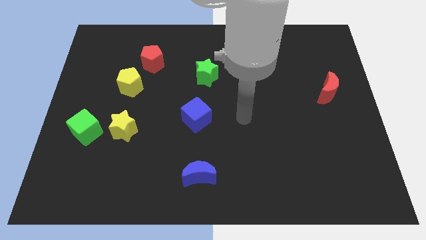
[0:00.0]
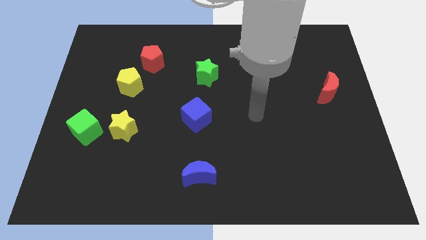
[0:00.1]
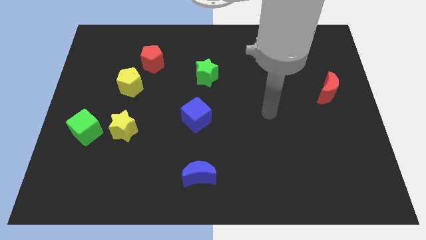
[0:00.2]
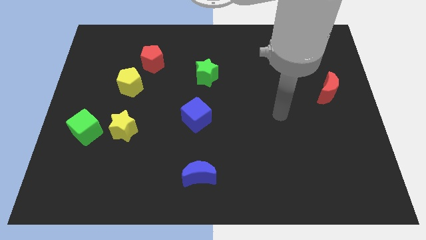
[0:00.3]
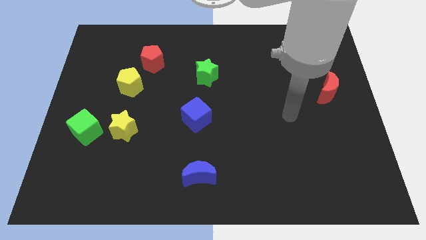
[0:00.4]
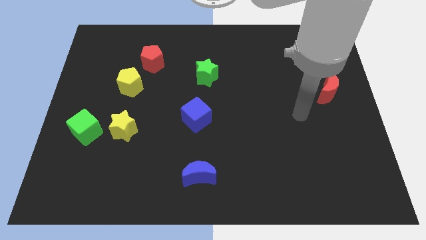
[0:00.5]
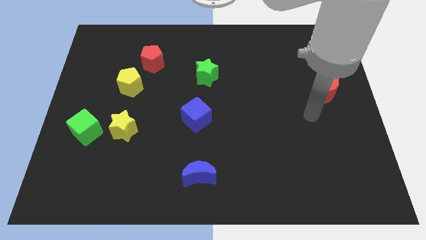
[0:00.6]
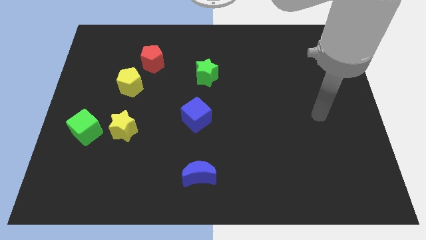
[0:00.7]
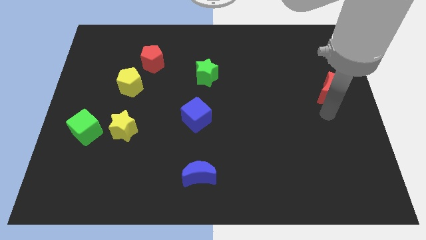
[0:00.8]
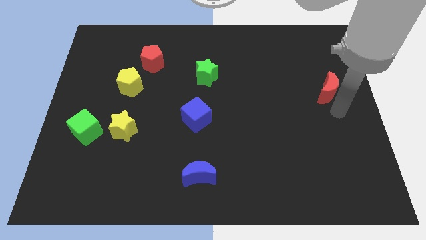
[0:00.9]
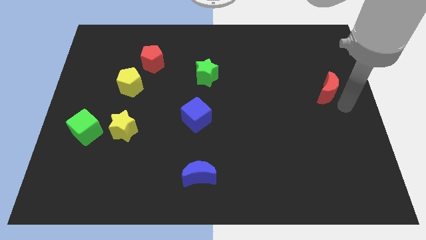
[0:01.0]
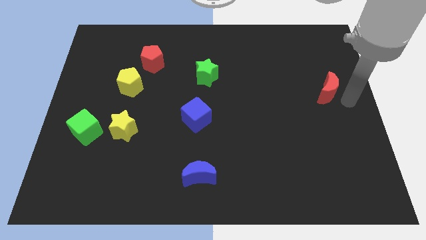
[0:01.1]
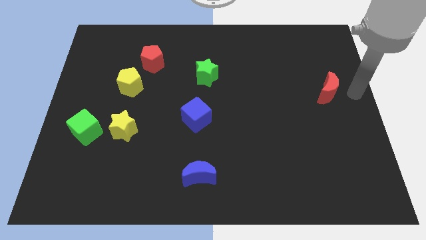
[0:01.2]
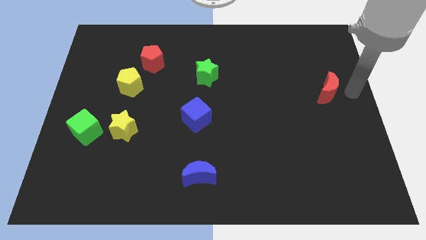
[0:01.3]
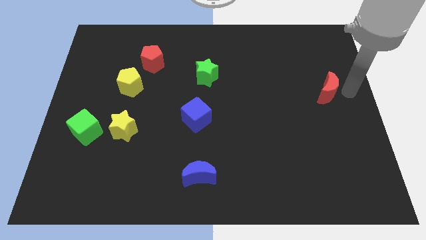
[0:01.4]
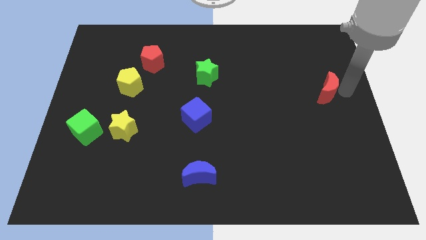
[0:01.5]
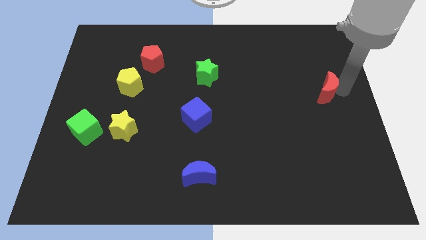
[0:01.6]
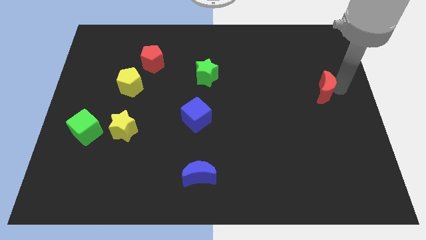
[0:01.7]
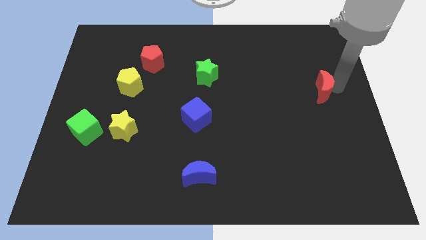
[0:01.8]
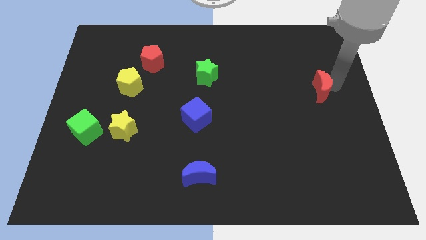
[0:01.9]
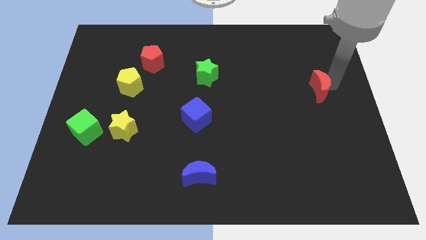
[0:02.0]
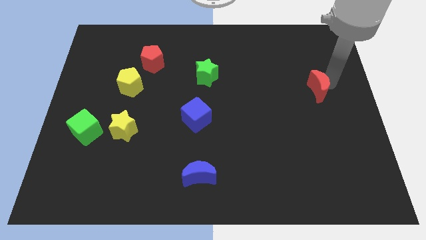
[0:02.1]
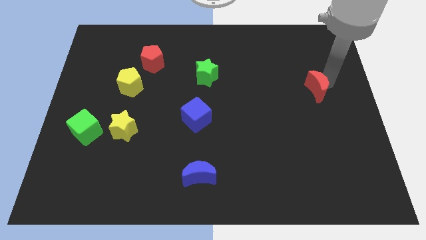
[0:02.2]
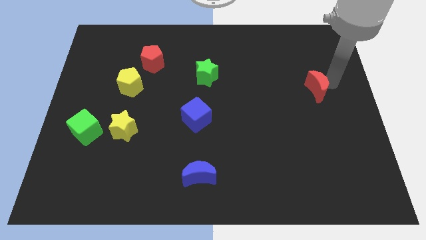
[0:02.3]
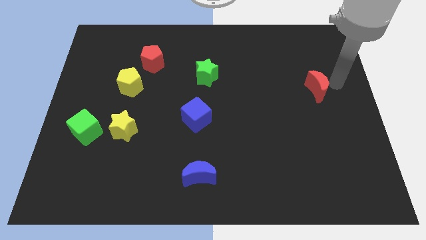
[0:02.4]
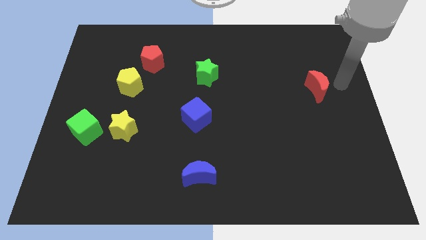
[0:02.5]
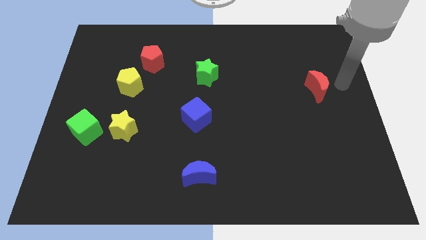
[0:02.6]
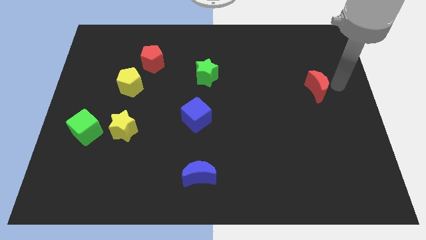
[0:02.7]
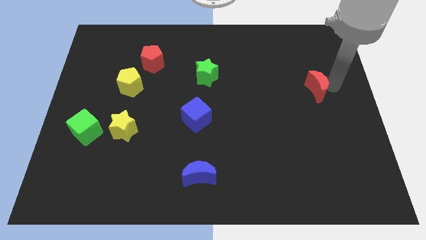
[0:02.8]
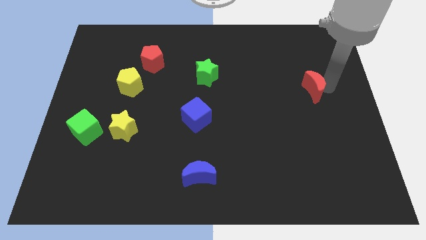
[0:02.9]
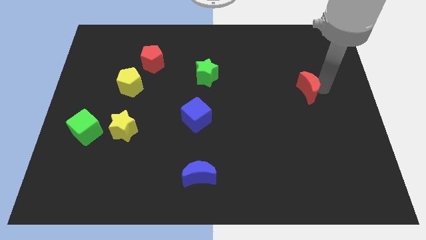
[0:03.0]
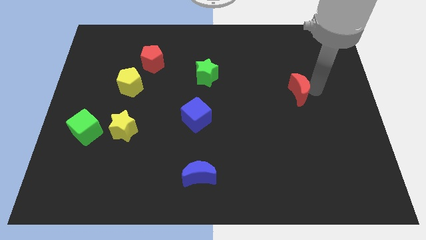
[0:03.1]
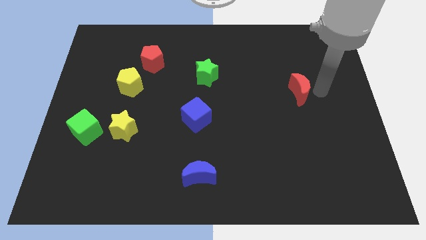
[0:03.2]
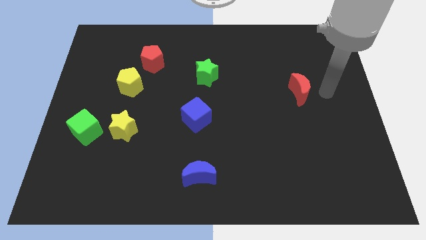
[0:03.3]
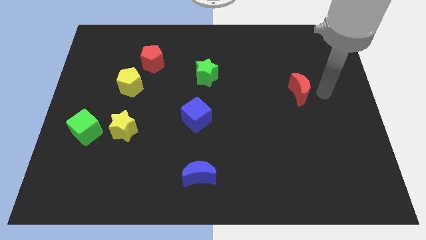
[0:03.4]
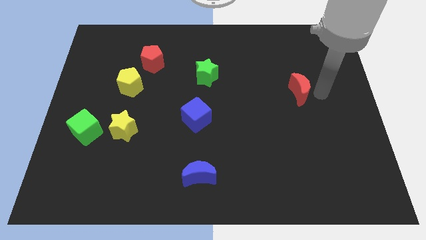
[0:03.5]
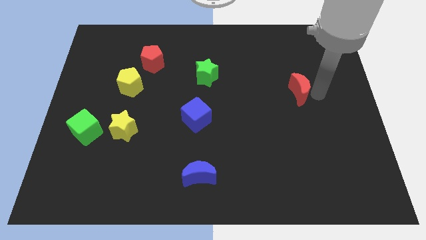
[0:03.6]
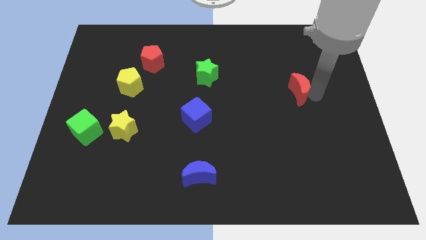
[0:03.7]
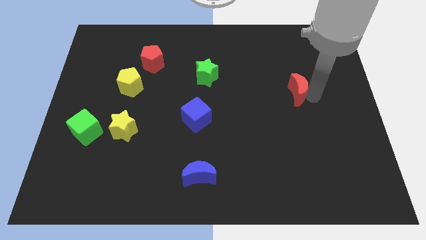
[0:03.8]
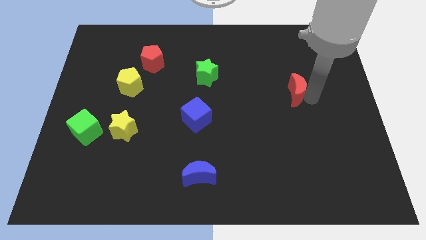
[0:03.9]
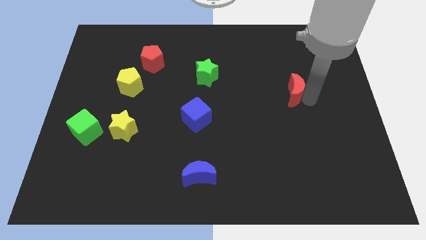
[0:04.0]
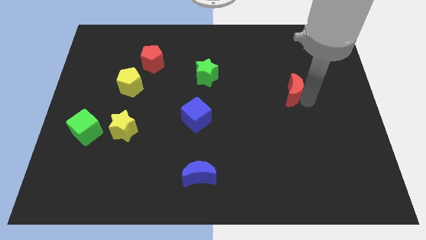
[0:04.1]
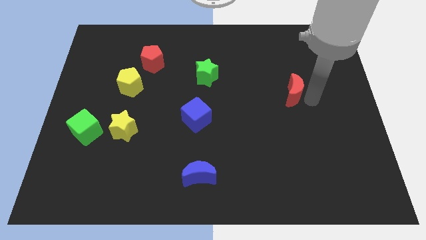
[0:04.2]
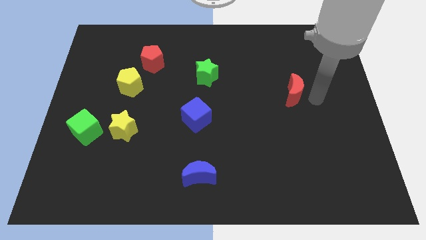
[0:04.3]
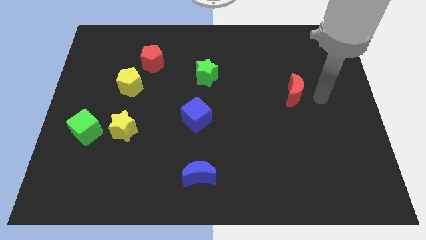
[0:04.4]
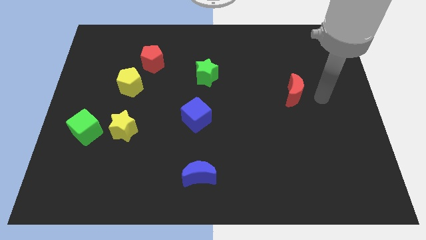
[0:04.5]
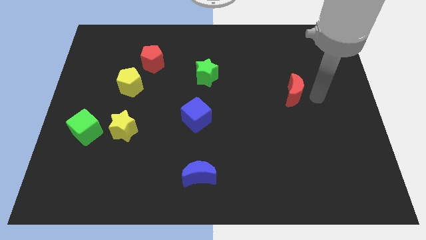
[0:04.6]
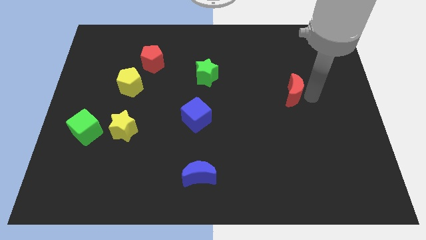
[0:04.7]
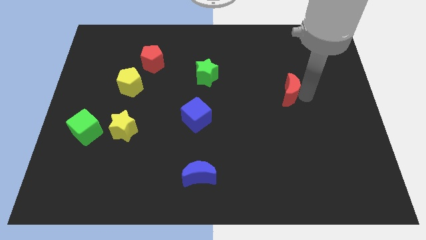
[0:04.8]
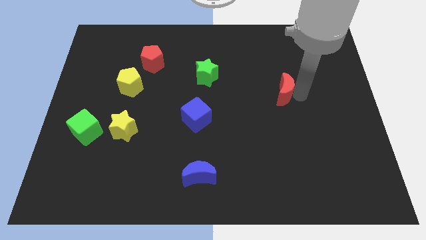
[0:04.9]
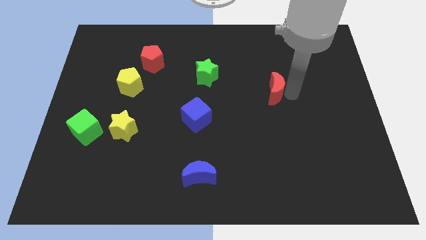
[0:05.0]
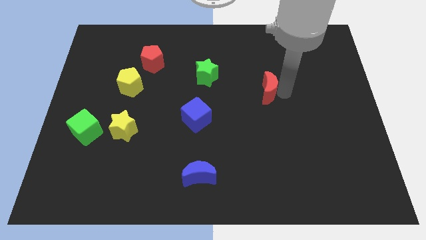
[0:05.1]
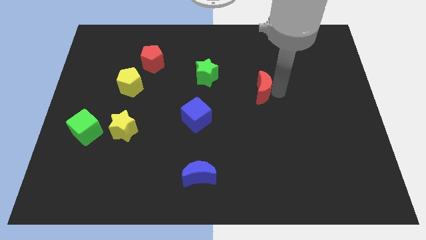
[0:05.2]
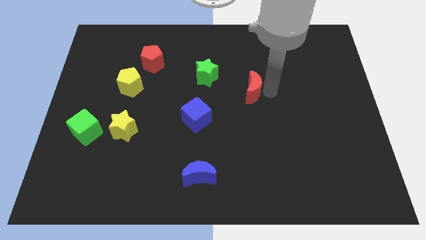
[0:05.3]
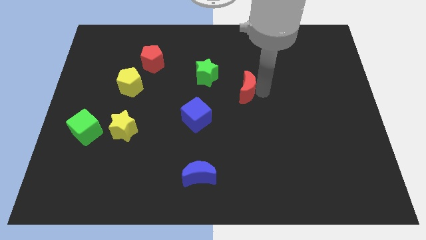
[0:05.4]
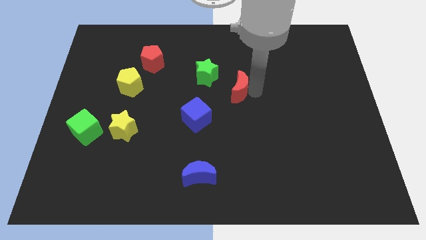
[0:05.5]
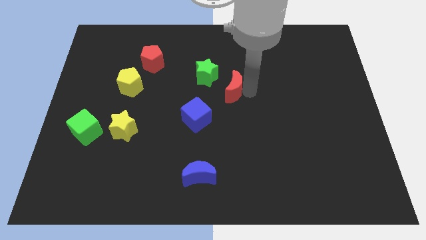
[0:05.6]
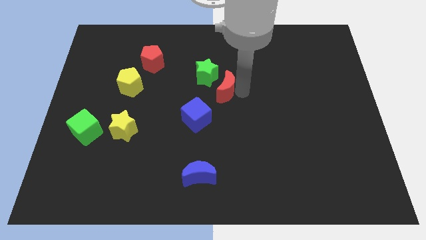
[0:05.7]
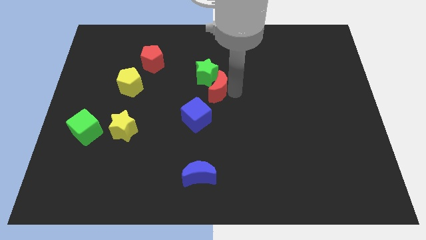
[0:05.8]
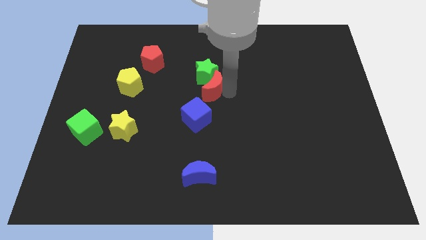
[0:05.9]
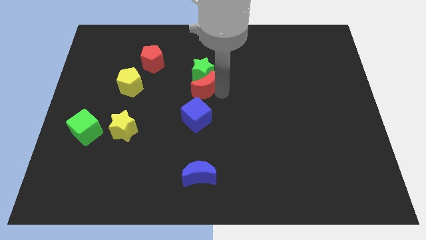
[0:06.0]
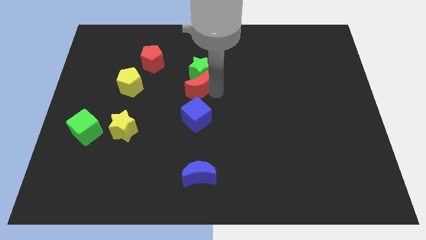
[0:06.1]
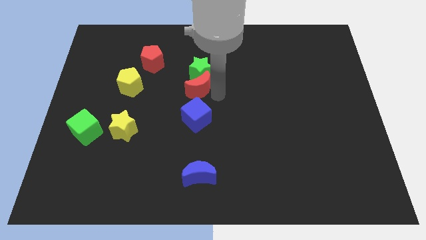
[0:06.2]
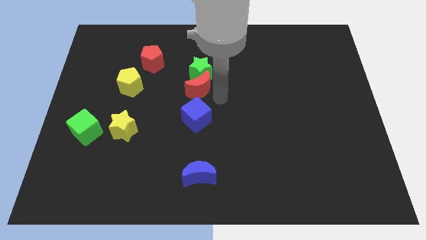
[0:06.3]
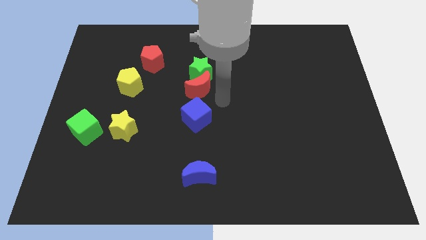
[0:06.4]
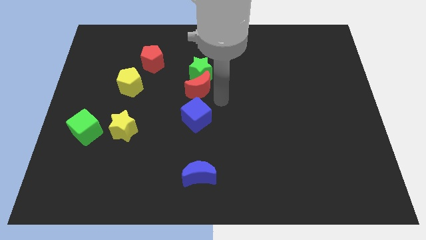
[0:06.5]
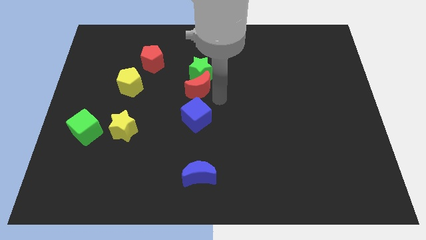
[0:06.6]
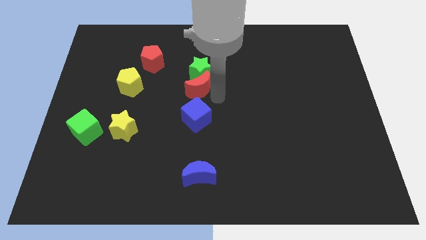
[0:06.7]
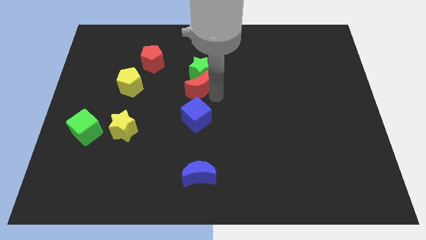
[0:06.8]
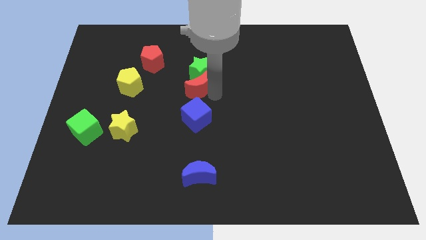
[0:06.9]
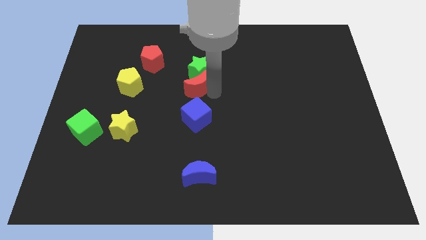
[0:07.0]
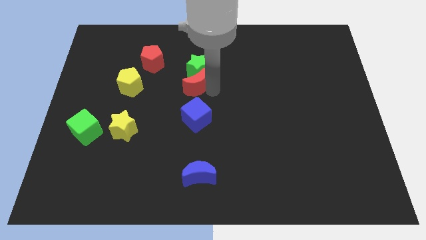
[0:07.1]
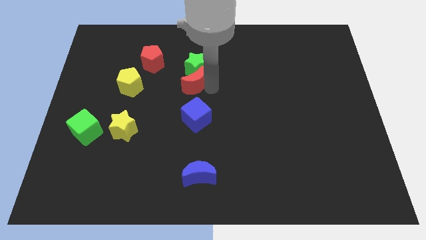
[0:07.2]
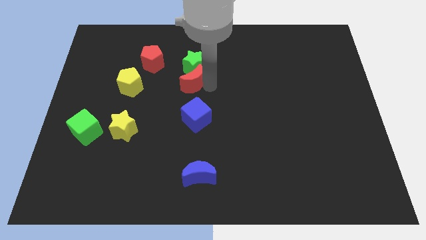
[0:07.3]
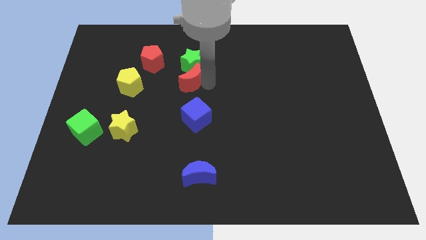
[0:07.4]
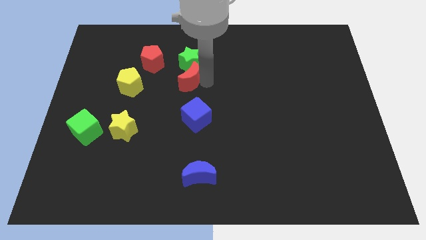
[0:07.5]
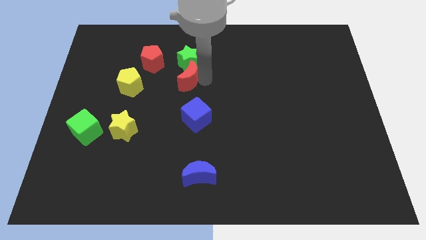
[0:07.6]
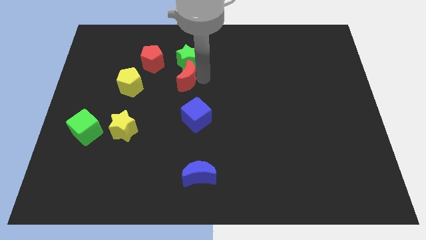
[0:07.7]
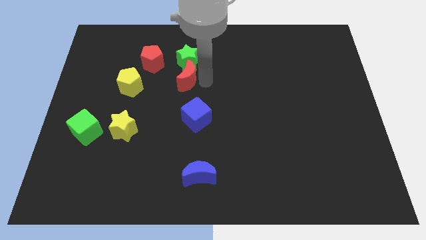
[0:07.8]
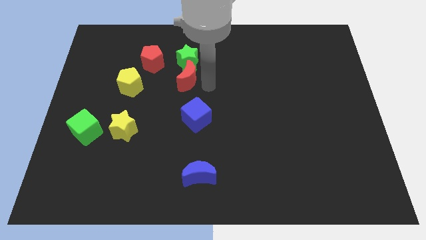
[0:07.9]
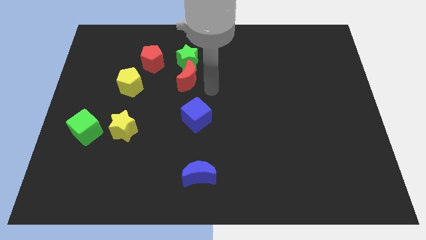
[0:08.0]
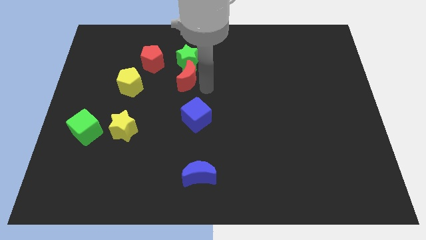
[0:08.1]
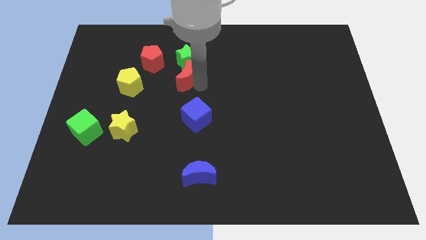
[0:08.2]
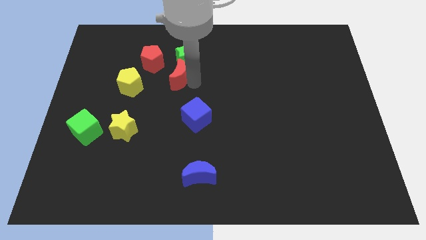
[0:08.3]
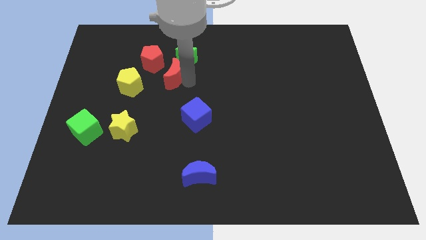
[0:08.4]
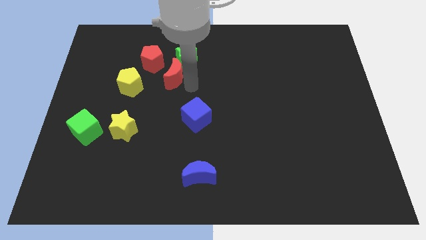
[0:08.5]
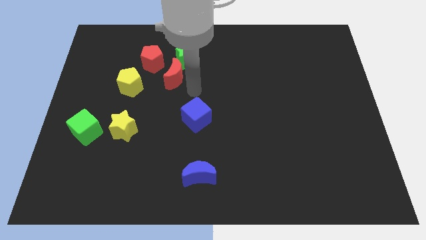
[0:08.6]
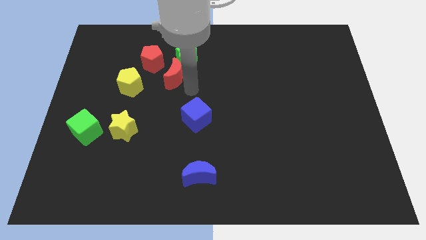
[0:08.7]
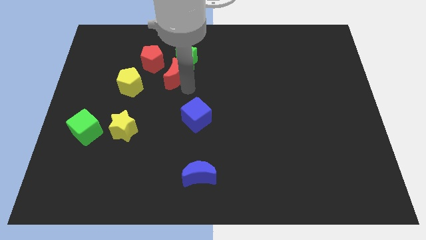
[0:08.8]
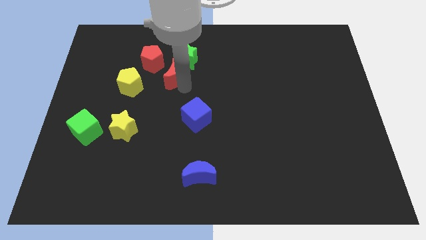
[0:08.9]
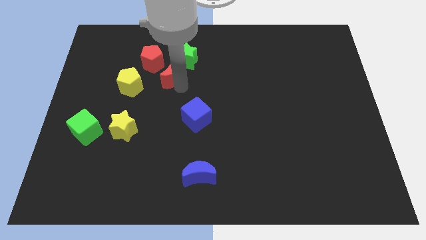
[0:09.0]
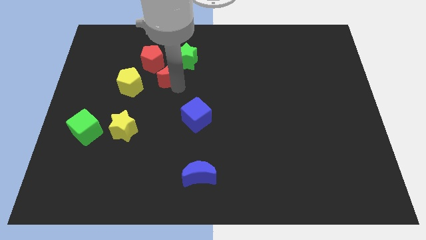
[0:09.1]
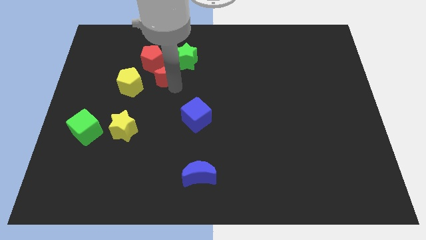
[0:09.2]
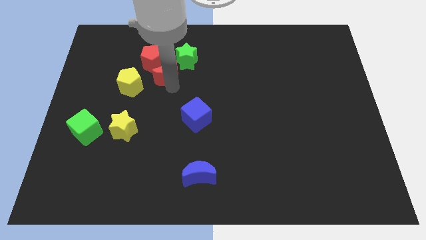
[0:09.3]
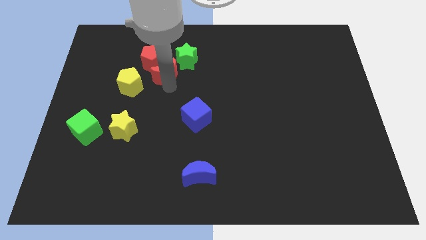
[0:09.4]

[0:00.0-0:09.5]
slide the red moon to the red pentagon
